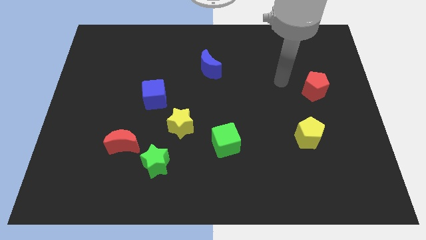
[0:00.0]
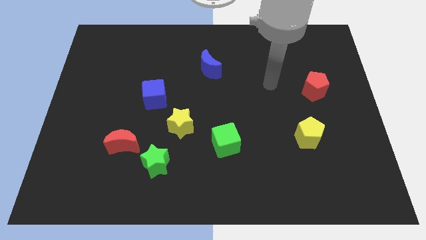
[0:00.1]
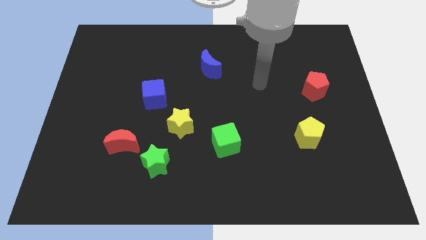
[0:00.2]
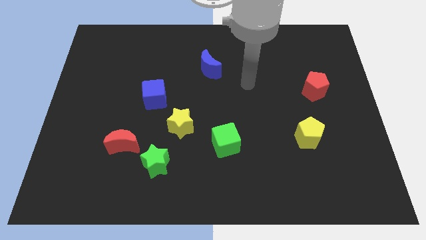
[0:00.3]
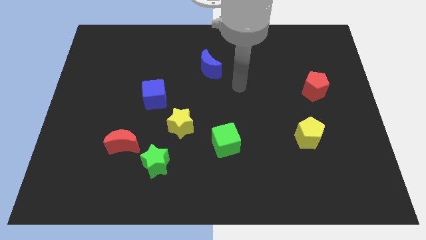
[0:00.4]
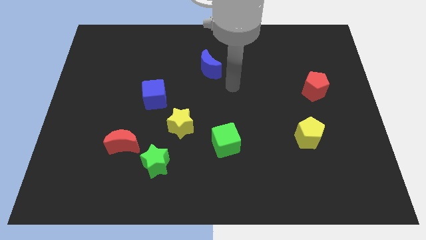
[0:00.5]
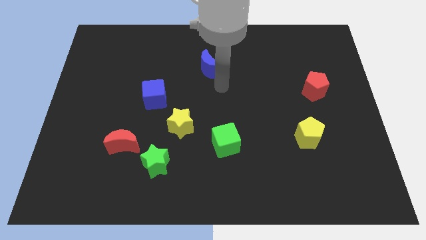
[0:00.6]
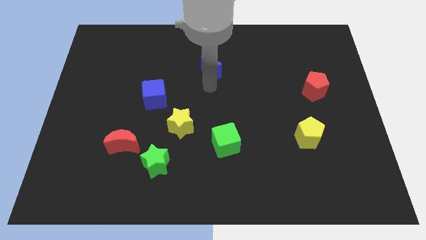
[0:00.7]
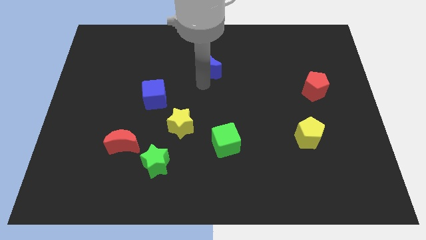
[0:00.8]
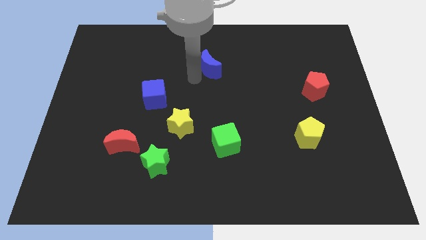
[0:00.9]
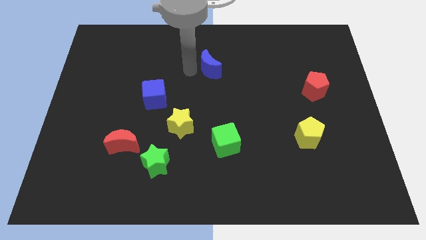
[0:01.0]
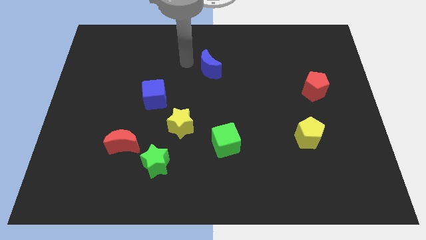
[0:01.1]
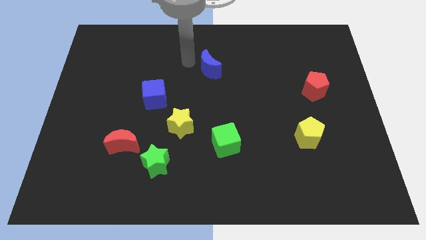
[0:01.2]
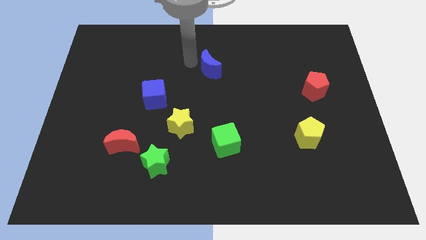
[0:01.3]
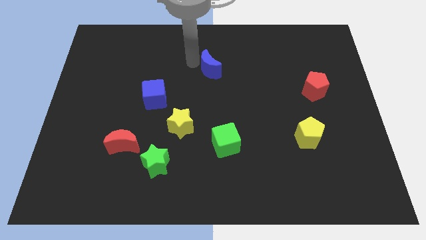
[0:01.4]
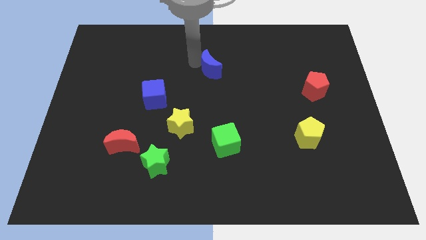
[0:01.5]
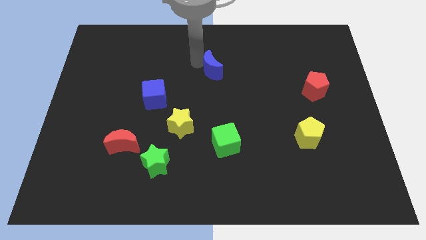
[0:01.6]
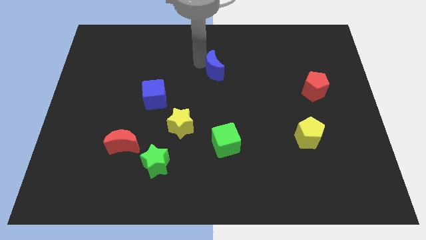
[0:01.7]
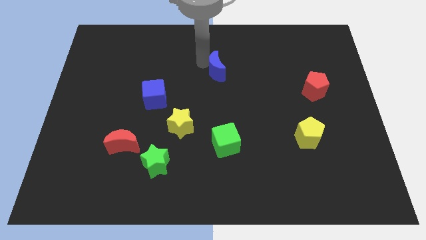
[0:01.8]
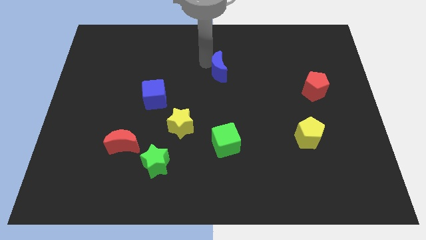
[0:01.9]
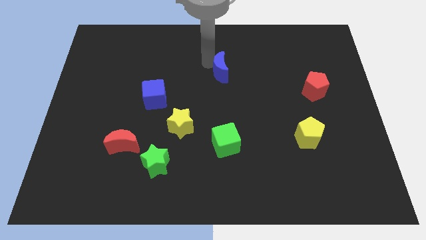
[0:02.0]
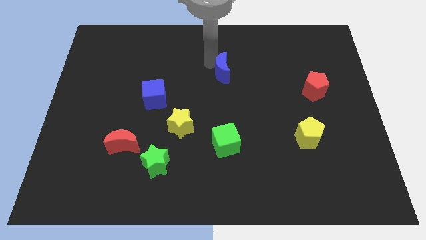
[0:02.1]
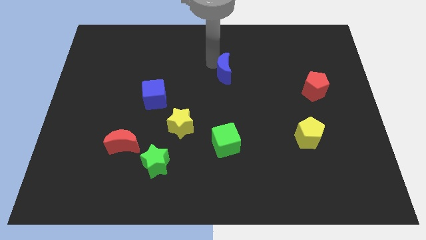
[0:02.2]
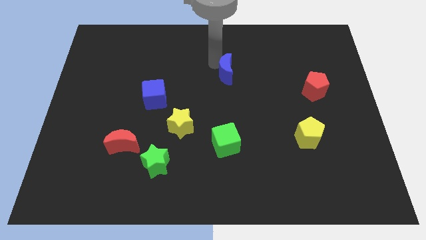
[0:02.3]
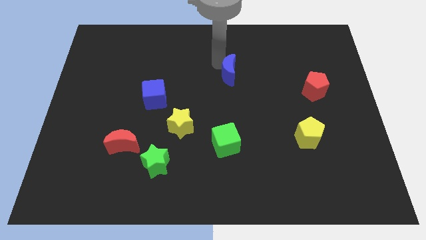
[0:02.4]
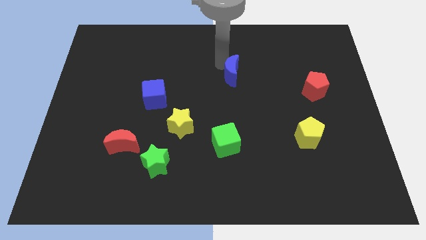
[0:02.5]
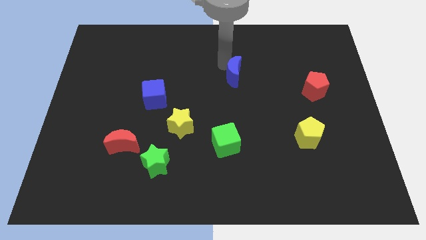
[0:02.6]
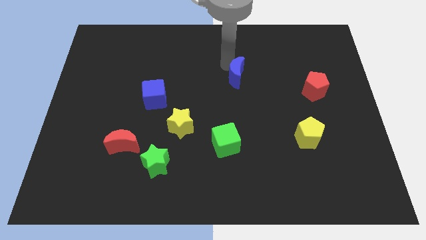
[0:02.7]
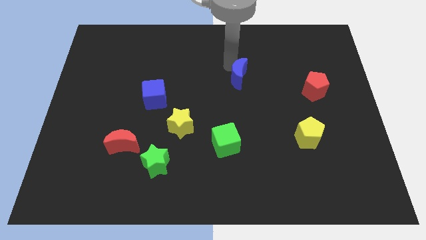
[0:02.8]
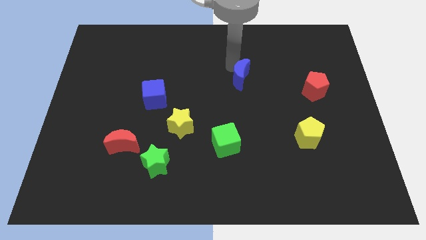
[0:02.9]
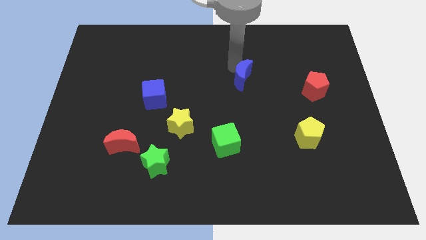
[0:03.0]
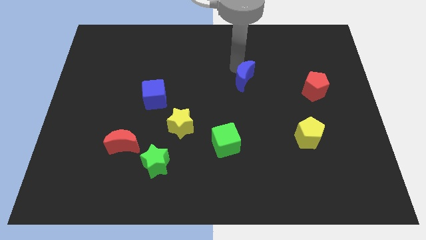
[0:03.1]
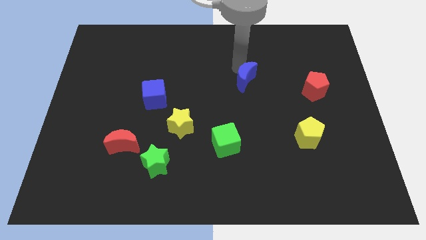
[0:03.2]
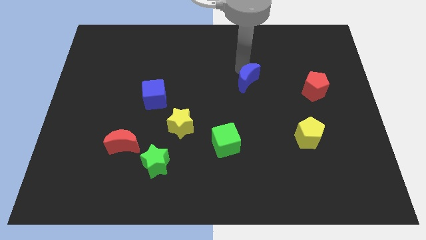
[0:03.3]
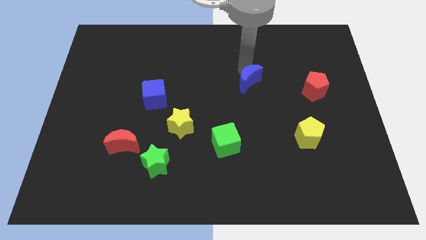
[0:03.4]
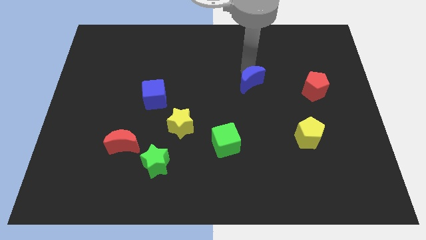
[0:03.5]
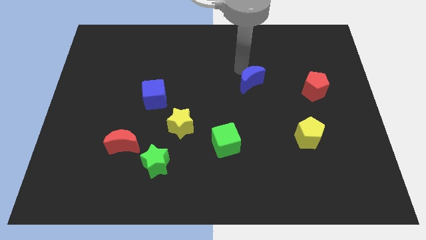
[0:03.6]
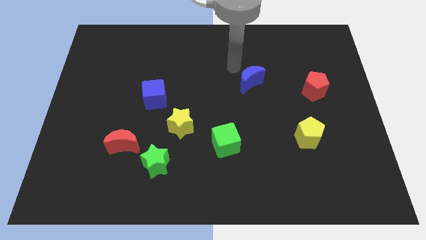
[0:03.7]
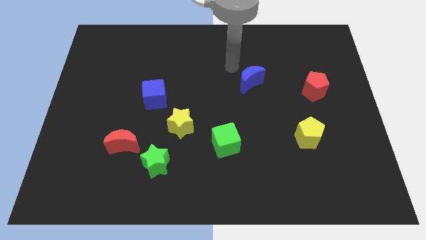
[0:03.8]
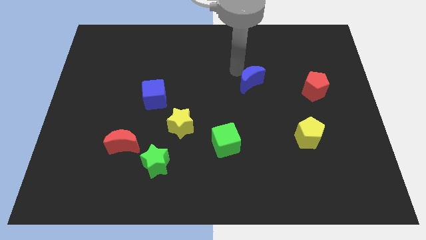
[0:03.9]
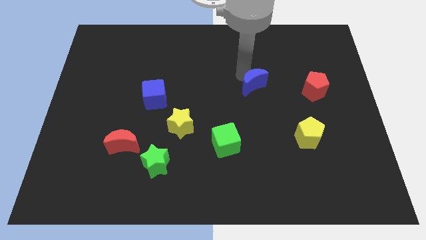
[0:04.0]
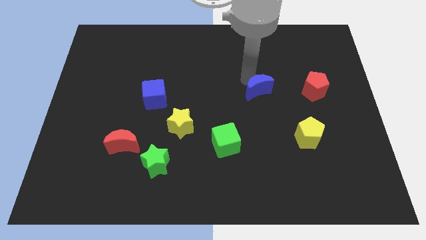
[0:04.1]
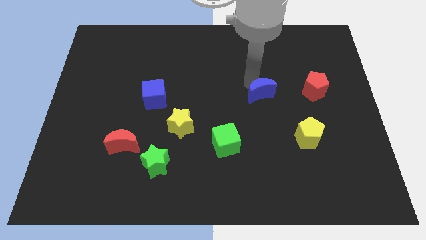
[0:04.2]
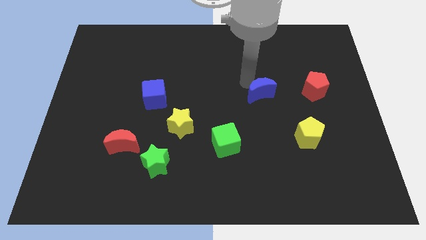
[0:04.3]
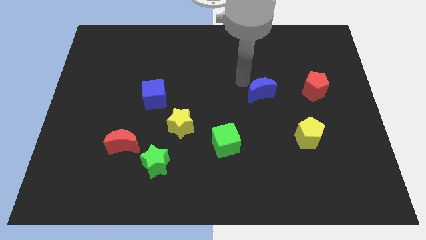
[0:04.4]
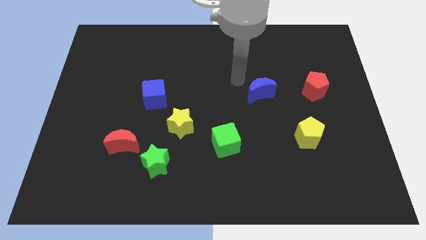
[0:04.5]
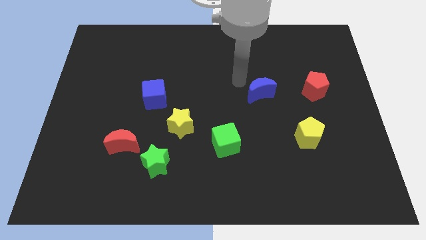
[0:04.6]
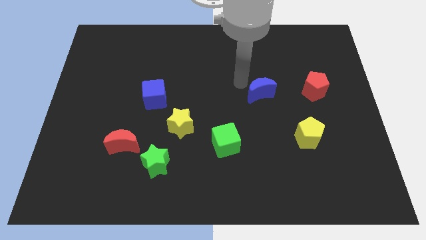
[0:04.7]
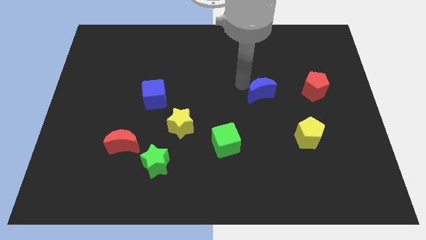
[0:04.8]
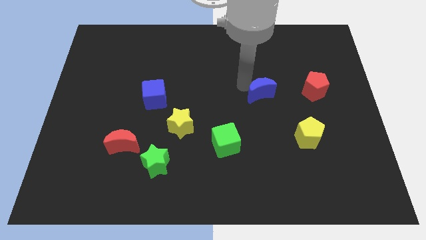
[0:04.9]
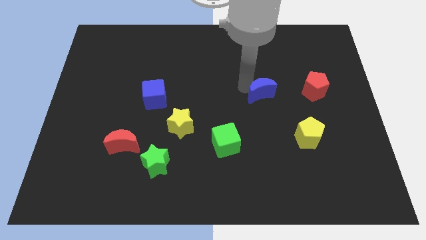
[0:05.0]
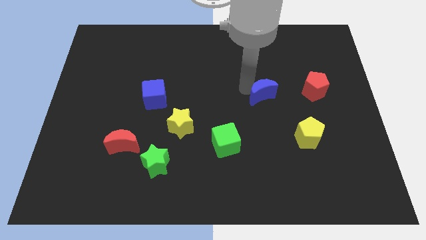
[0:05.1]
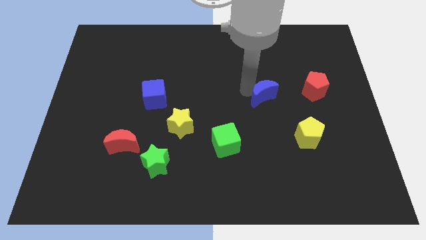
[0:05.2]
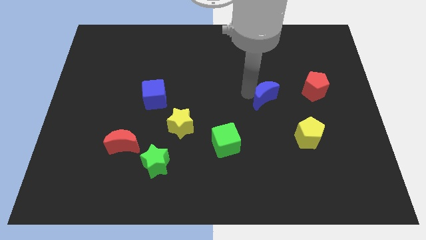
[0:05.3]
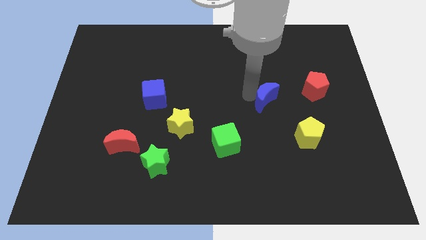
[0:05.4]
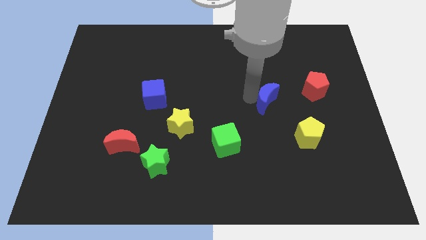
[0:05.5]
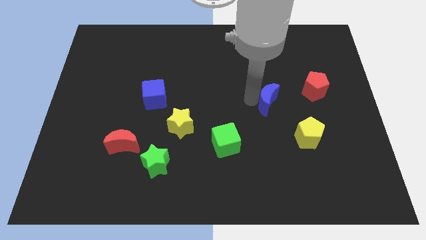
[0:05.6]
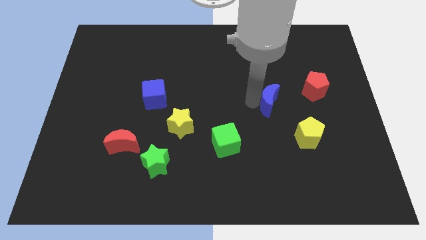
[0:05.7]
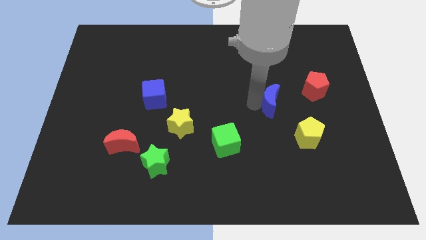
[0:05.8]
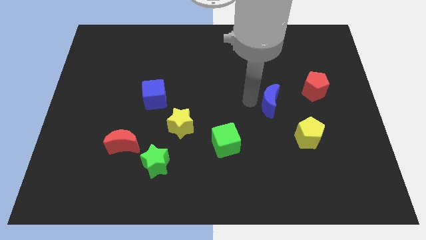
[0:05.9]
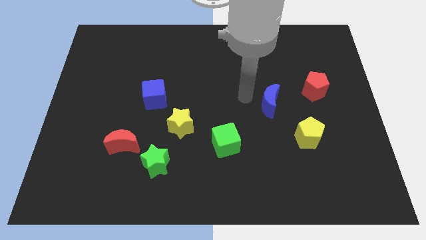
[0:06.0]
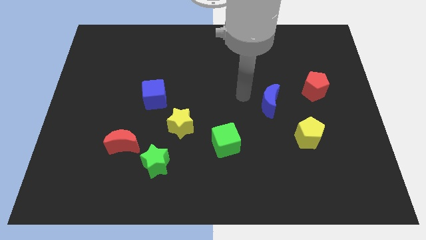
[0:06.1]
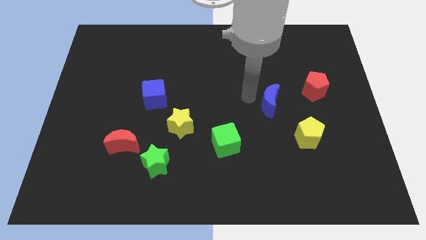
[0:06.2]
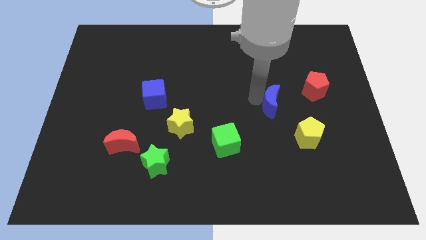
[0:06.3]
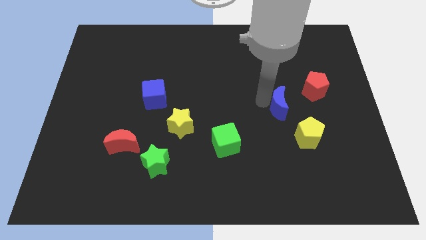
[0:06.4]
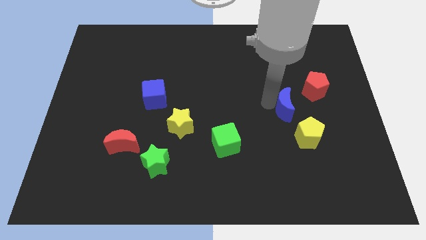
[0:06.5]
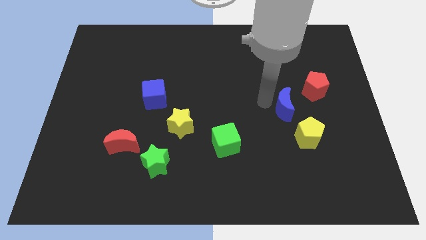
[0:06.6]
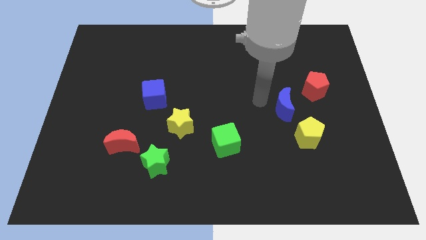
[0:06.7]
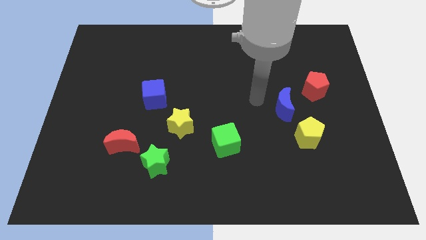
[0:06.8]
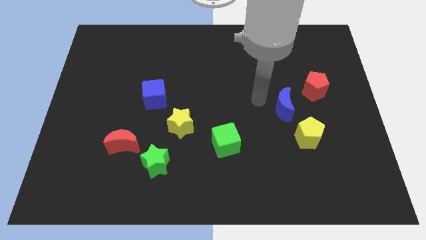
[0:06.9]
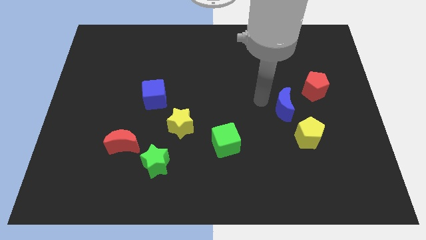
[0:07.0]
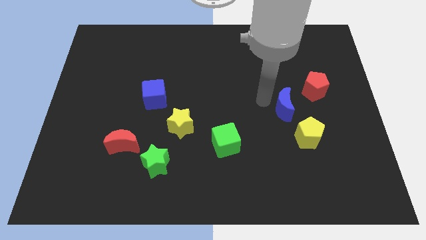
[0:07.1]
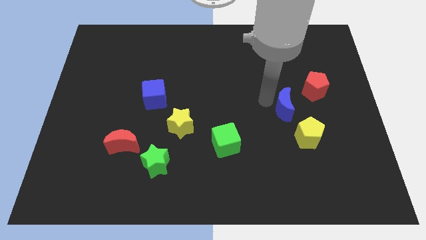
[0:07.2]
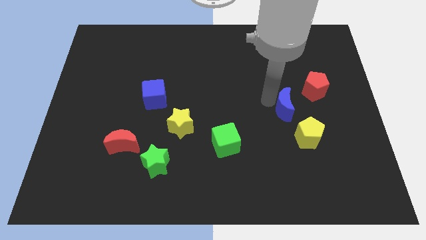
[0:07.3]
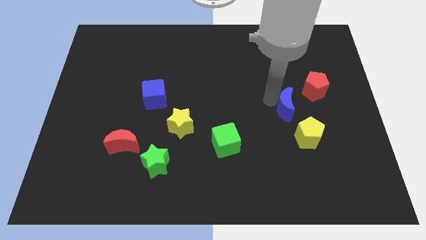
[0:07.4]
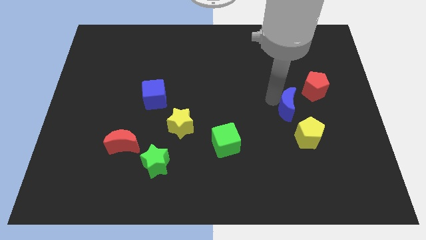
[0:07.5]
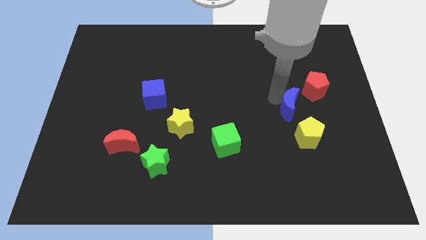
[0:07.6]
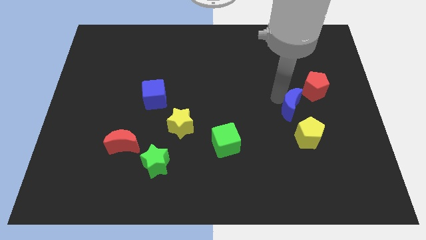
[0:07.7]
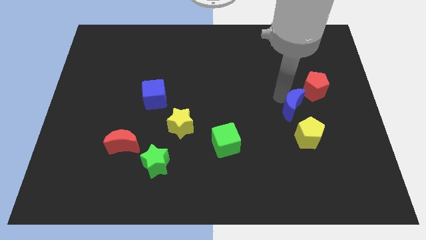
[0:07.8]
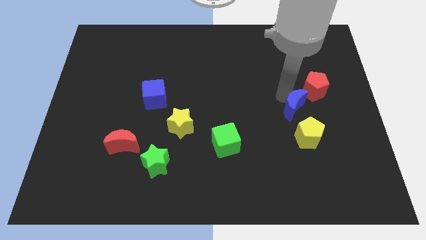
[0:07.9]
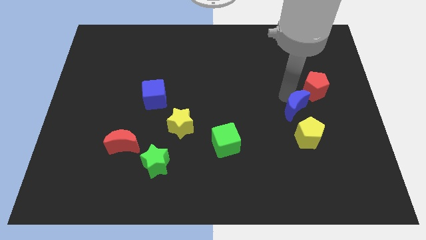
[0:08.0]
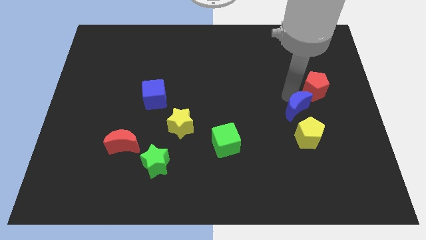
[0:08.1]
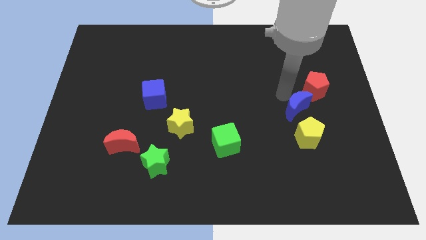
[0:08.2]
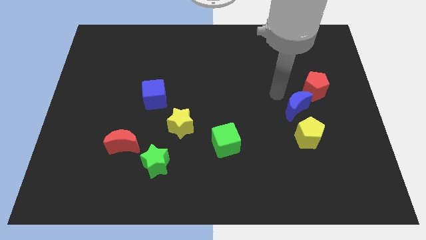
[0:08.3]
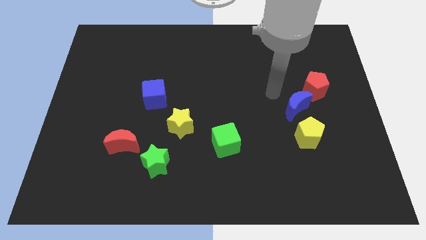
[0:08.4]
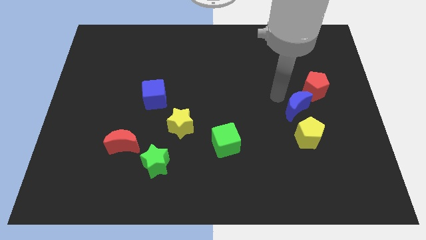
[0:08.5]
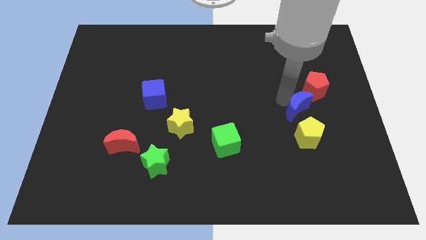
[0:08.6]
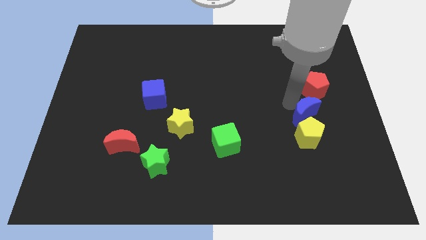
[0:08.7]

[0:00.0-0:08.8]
move the blue moon to the bottom side of the red pentagon
